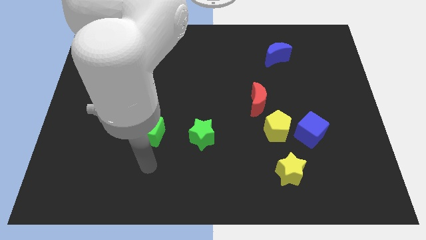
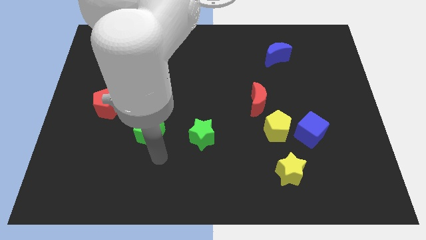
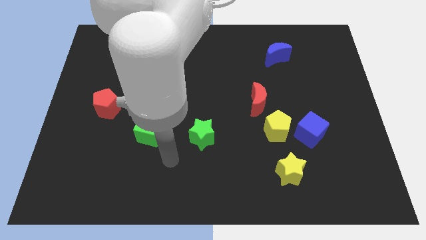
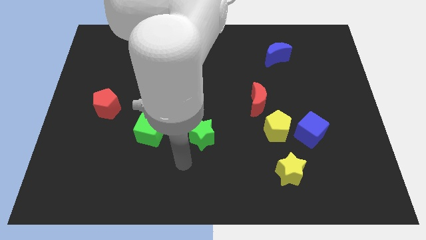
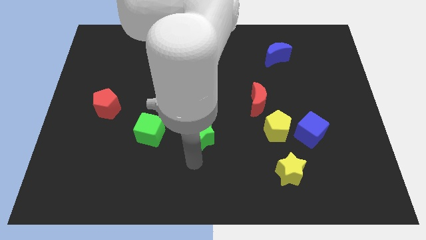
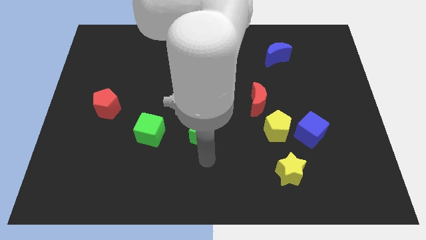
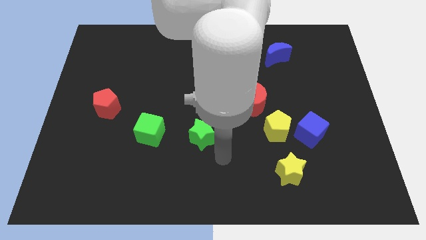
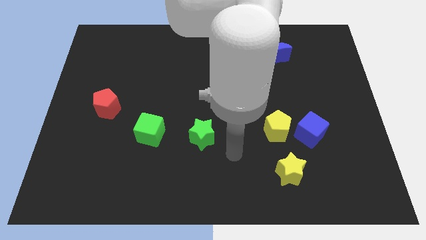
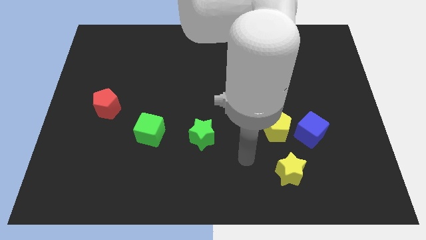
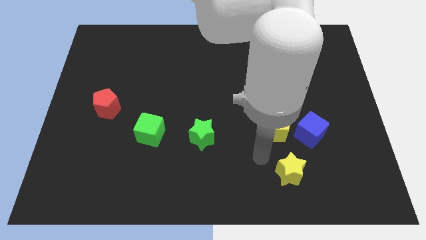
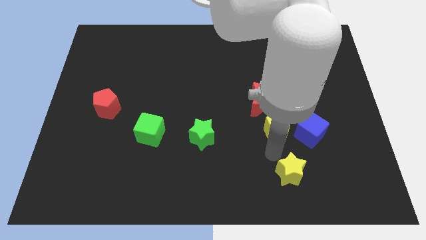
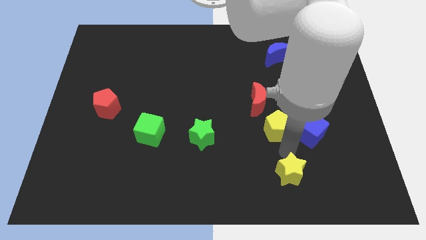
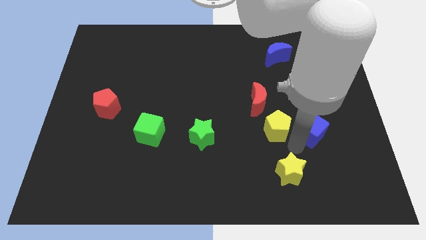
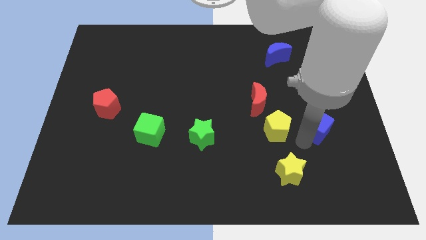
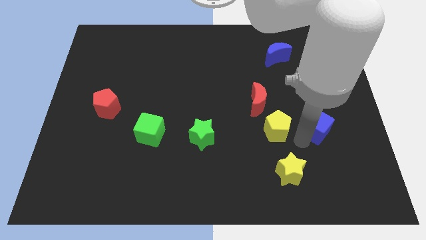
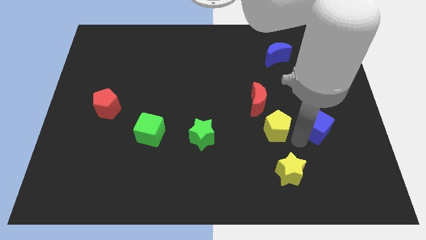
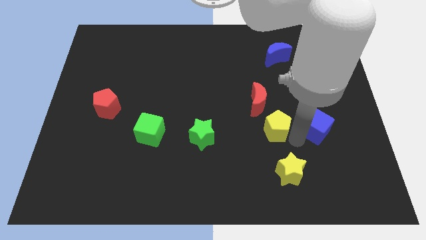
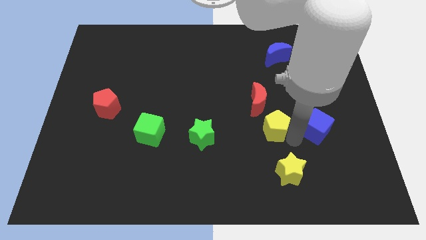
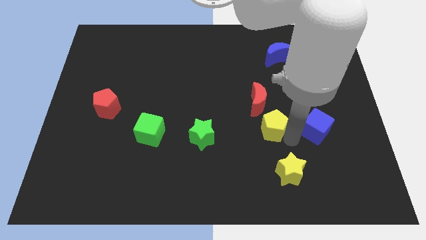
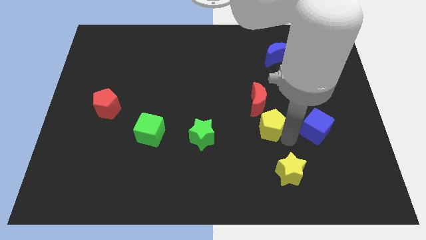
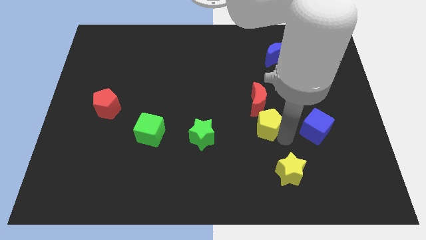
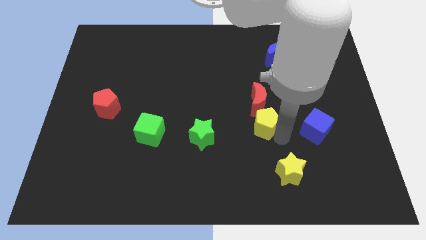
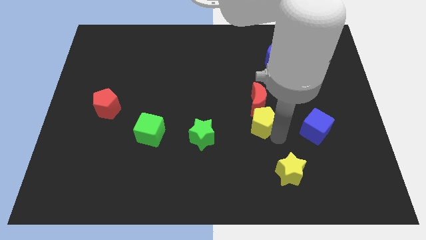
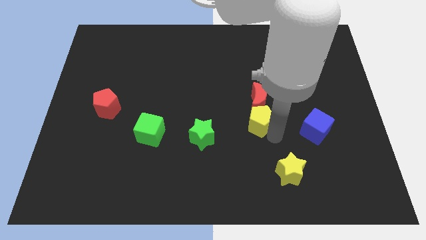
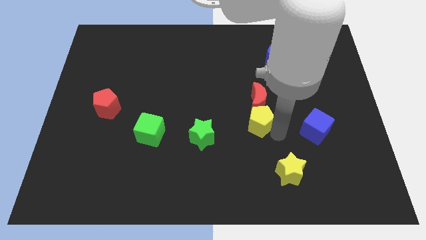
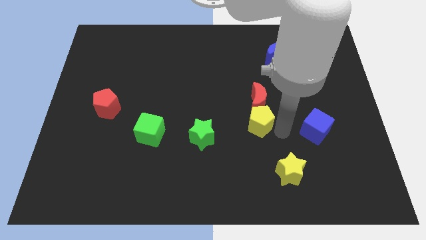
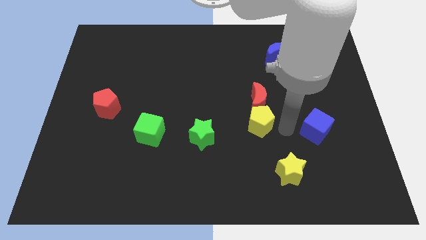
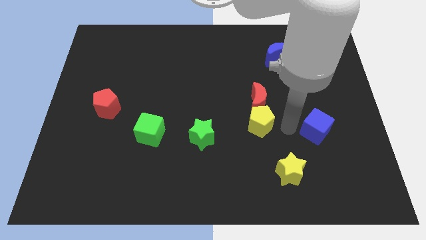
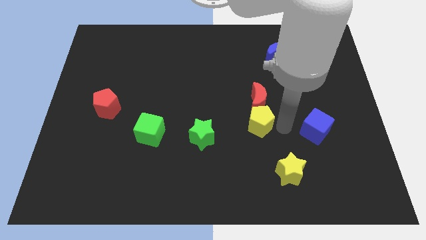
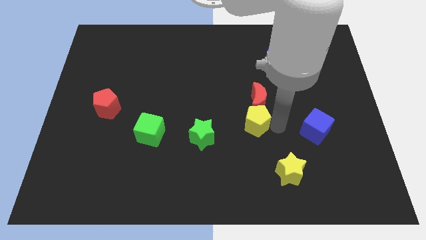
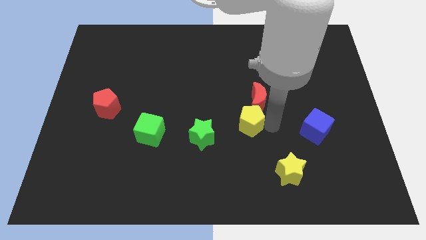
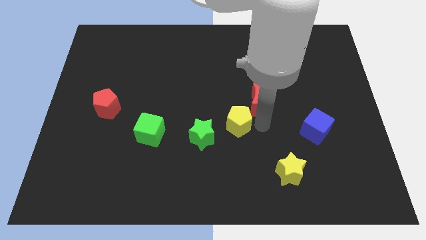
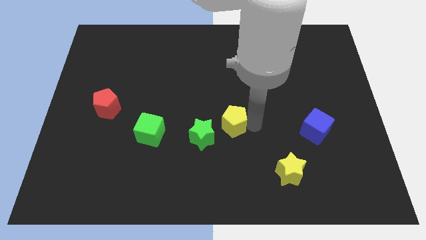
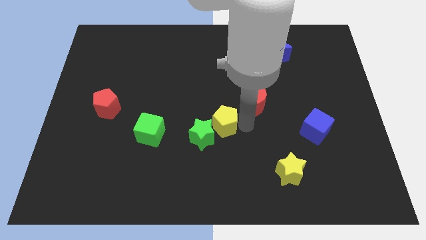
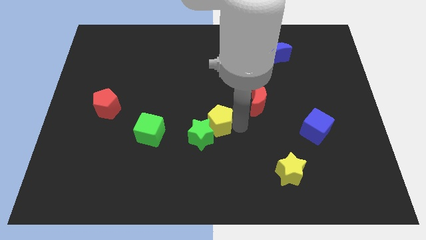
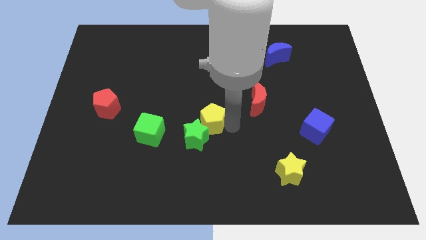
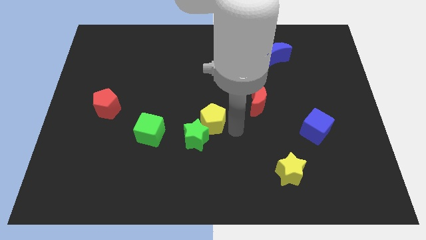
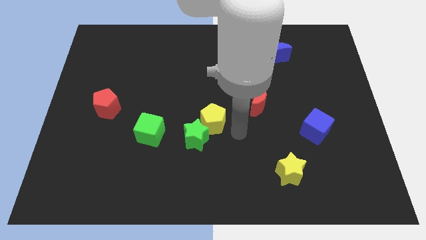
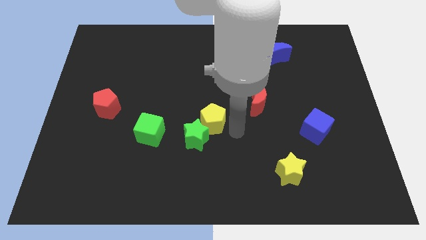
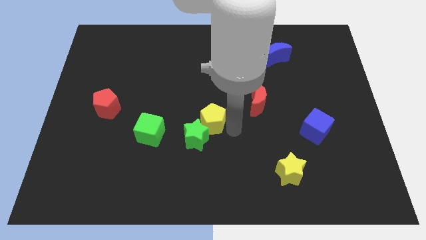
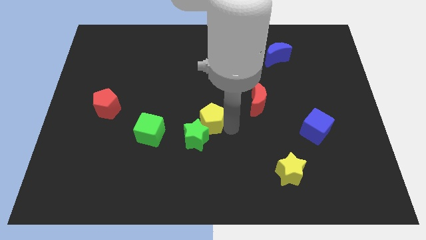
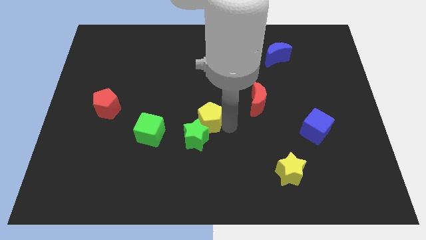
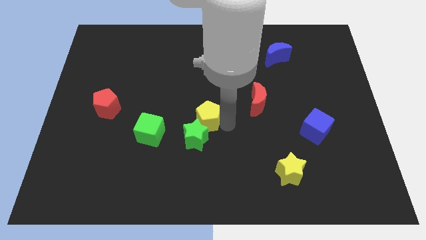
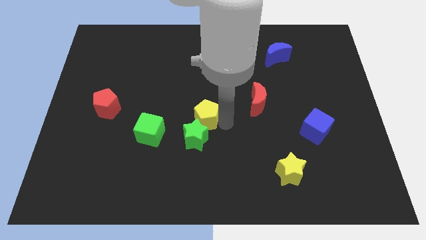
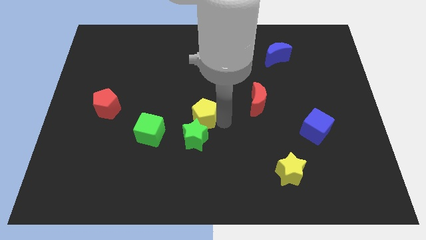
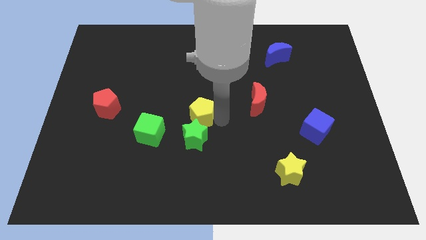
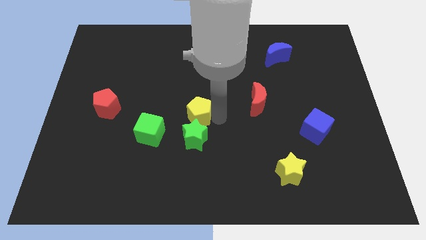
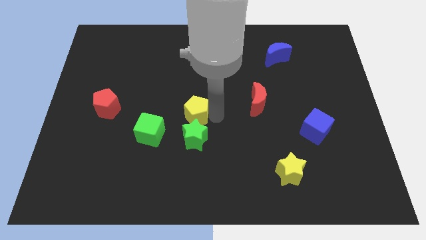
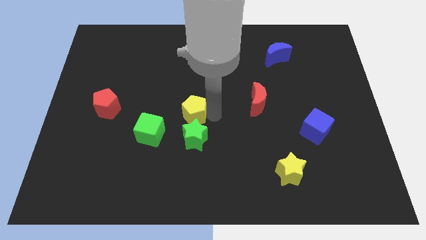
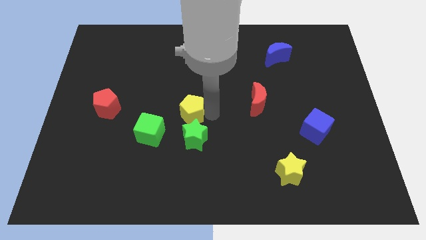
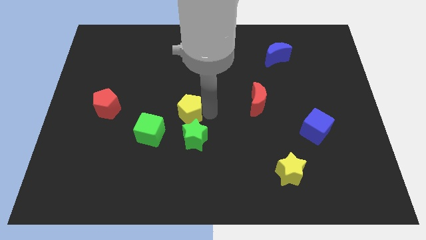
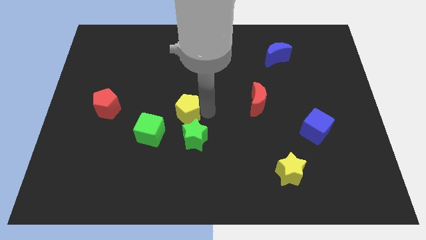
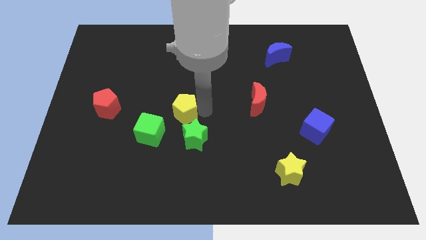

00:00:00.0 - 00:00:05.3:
move the yellow pentagon to the left

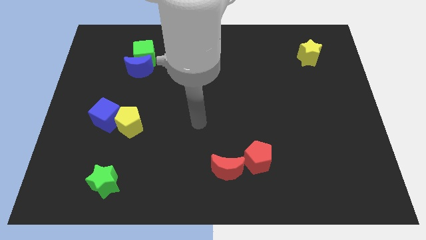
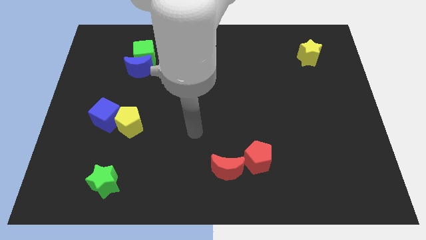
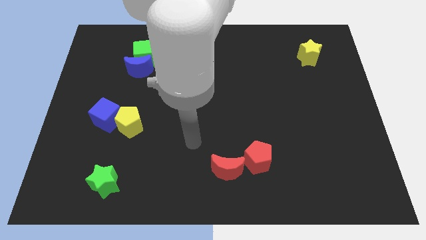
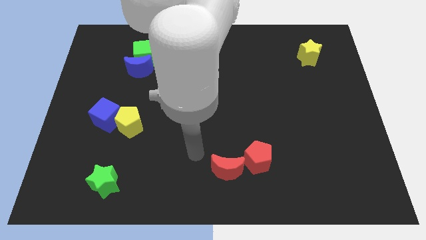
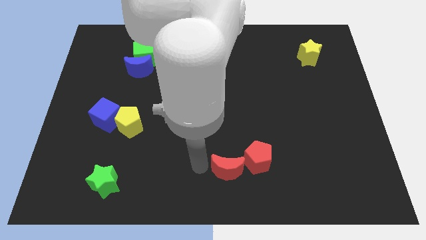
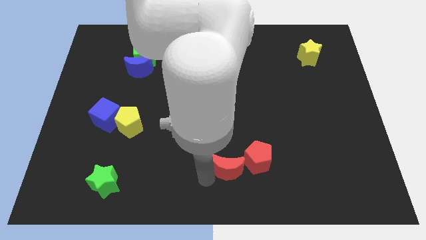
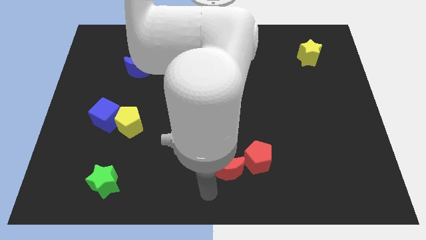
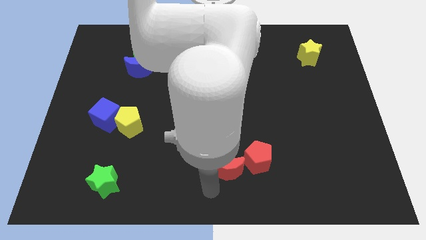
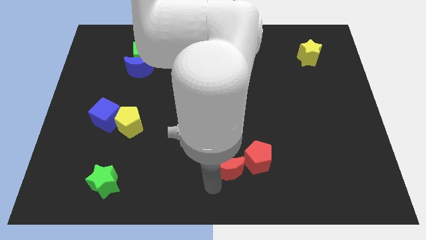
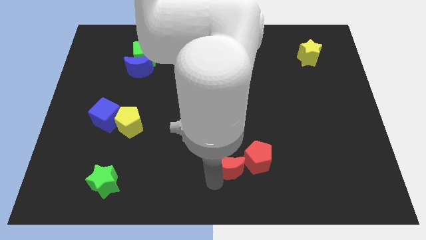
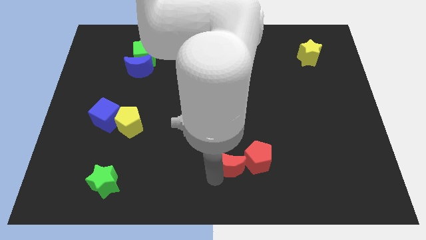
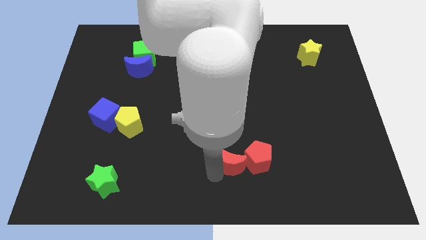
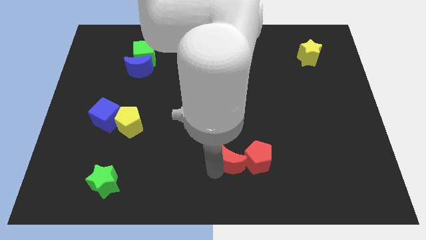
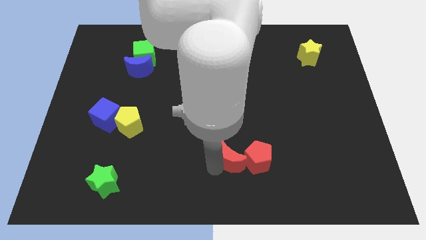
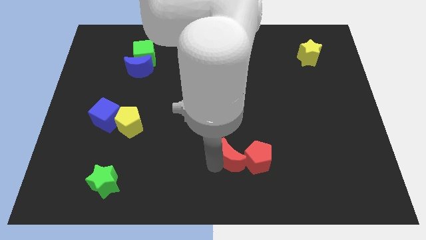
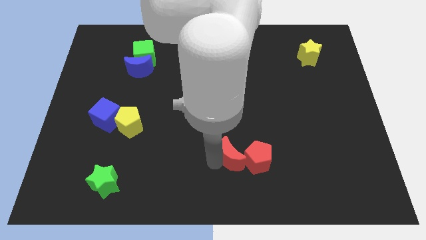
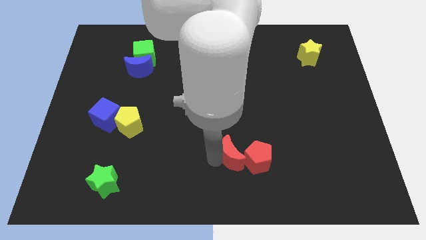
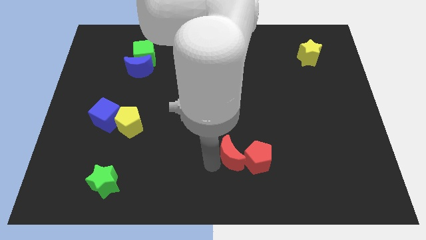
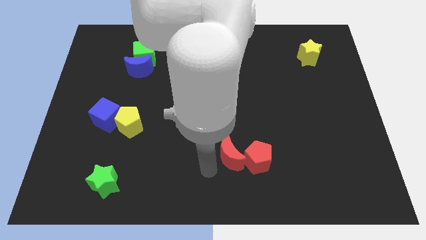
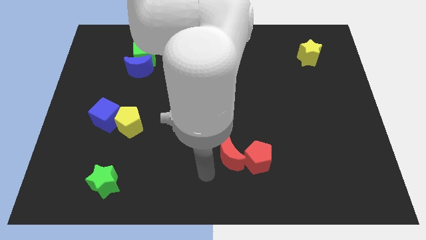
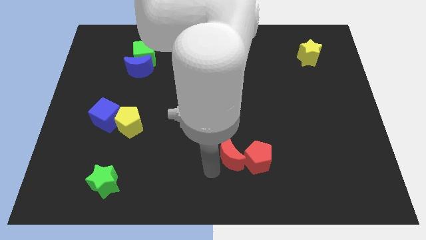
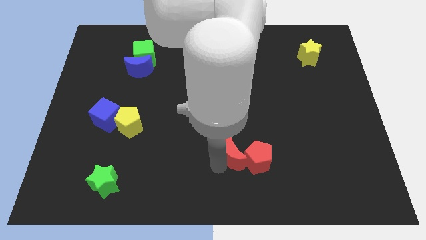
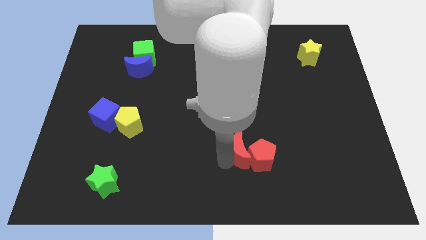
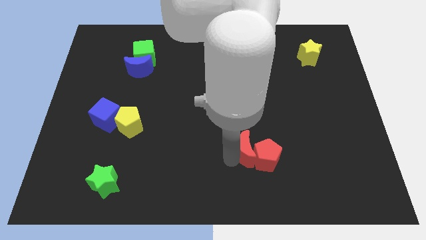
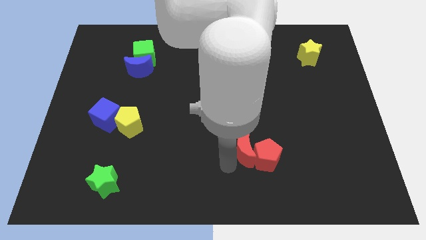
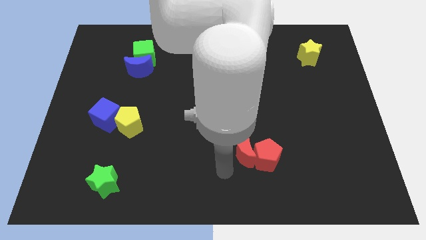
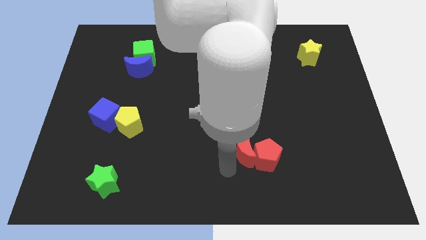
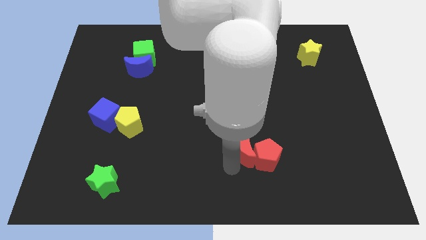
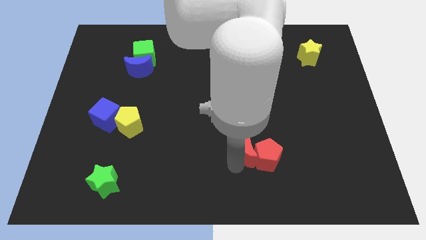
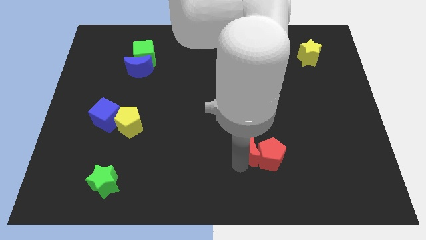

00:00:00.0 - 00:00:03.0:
push the red moon a bit diagonally up and right

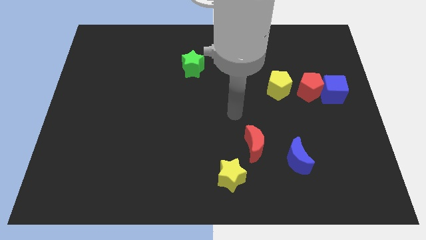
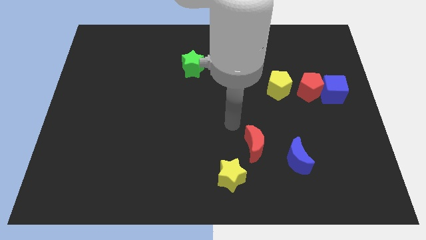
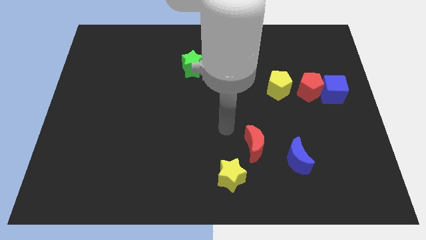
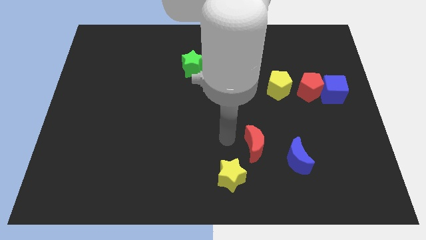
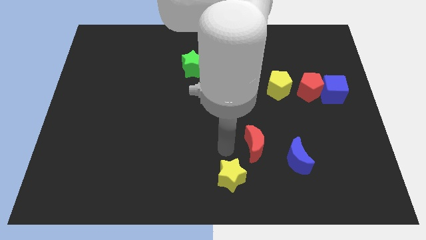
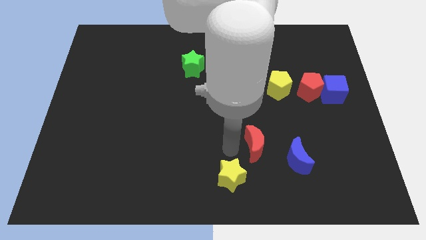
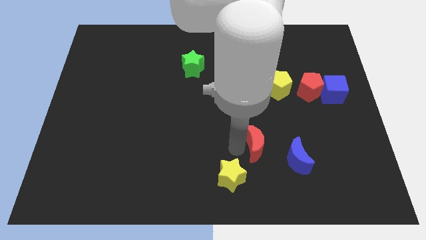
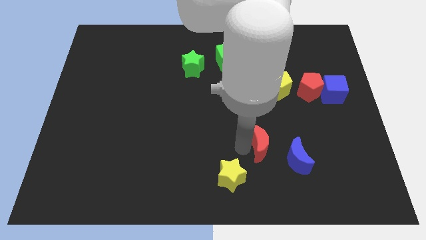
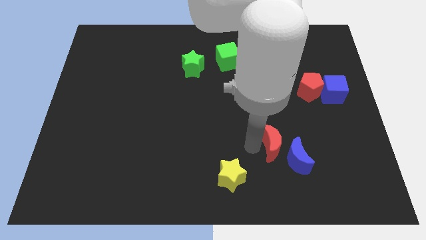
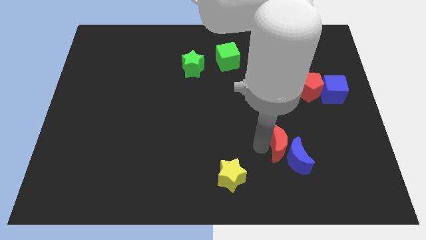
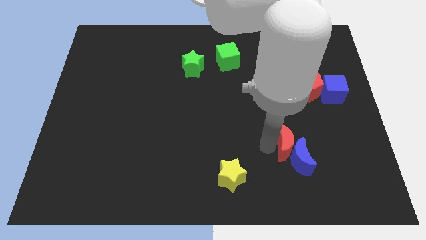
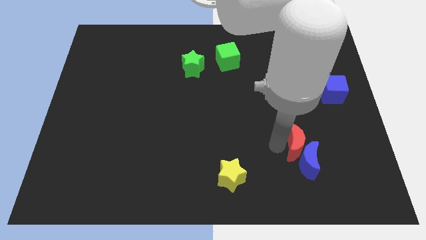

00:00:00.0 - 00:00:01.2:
slightly slide the red moon to the right
